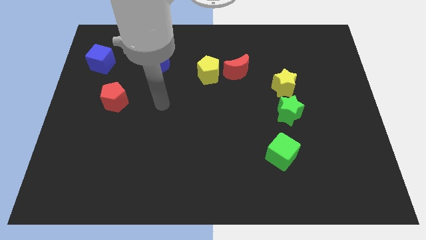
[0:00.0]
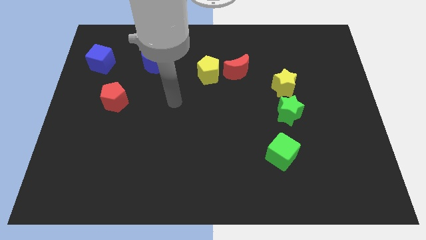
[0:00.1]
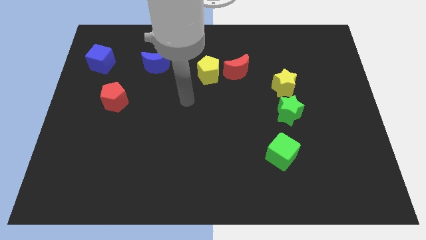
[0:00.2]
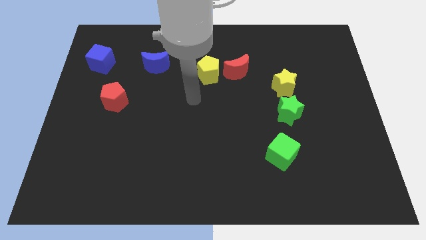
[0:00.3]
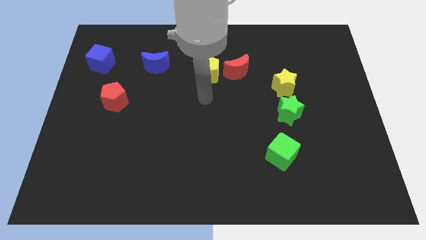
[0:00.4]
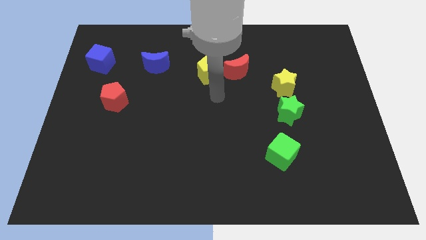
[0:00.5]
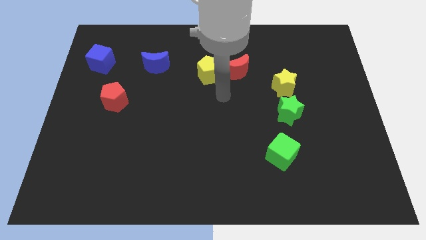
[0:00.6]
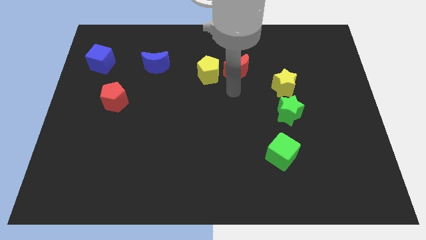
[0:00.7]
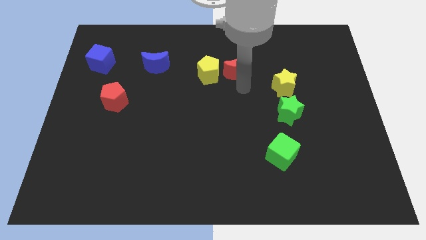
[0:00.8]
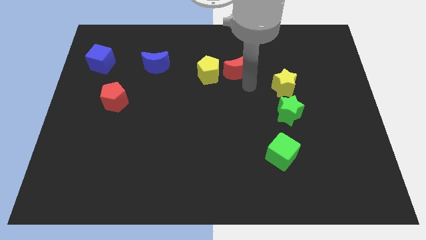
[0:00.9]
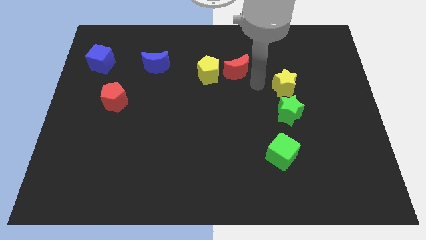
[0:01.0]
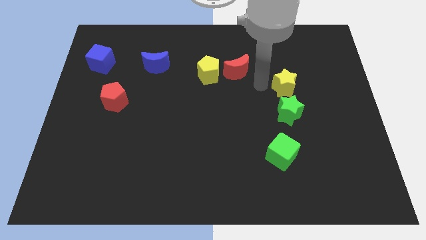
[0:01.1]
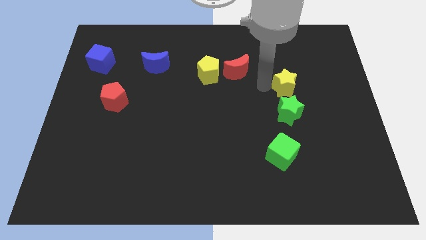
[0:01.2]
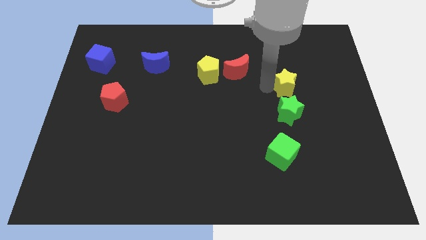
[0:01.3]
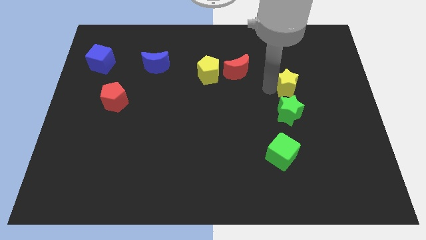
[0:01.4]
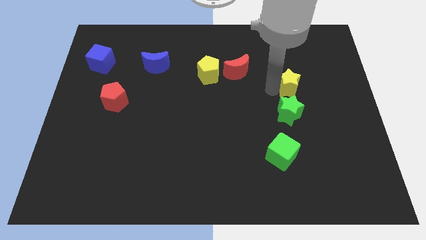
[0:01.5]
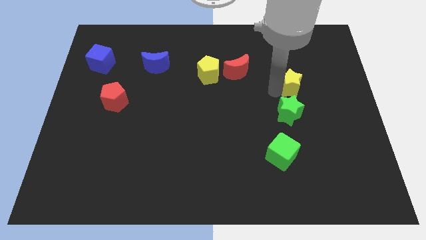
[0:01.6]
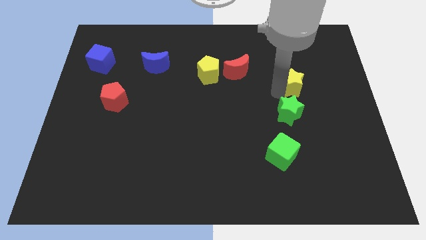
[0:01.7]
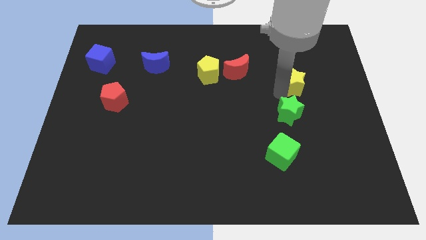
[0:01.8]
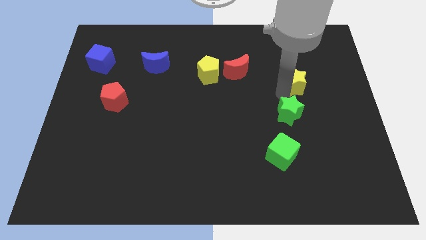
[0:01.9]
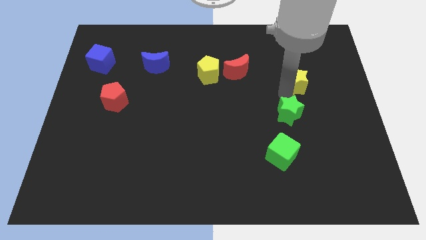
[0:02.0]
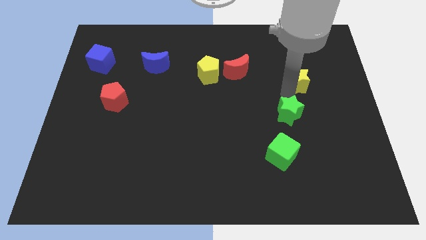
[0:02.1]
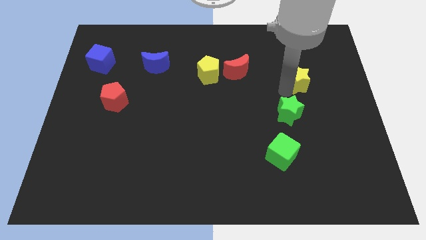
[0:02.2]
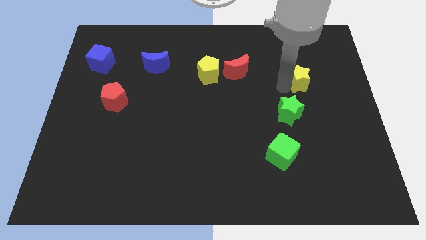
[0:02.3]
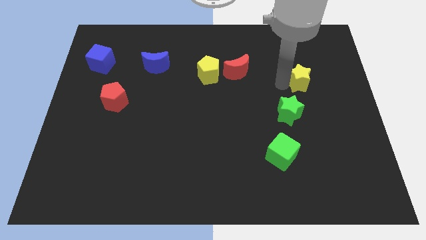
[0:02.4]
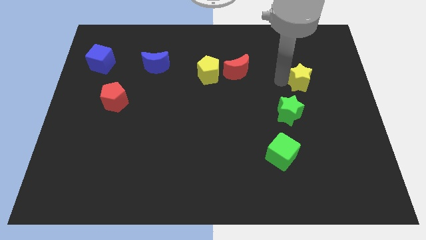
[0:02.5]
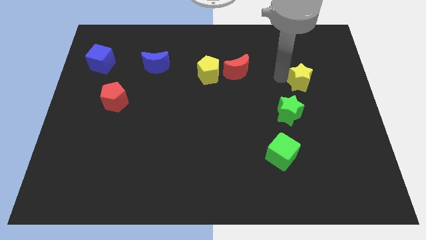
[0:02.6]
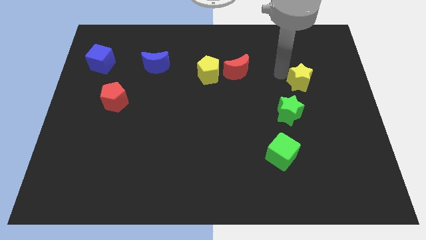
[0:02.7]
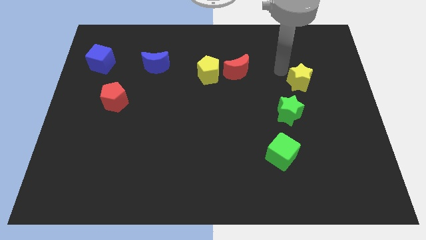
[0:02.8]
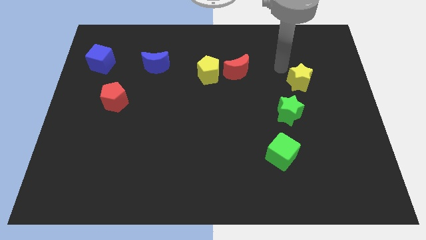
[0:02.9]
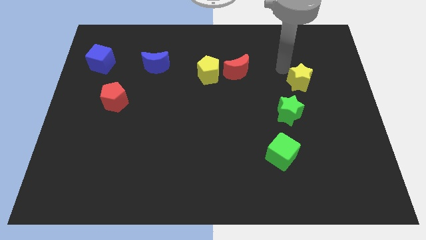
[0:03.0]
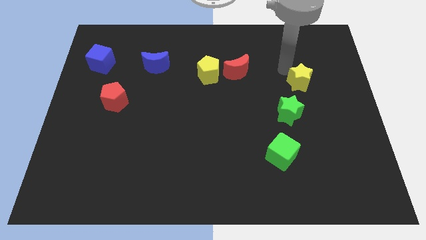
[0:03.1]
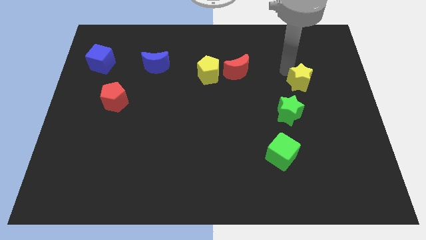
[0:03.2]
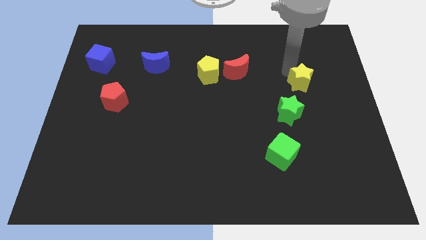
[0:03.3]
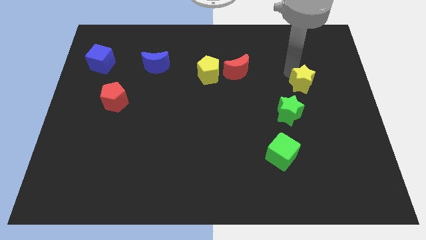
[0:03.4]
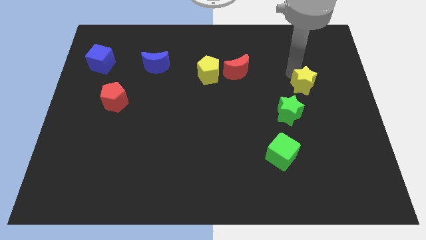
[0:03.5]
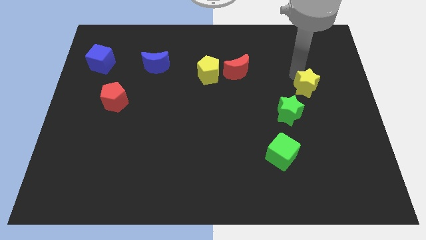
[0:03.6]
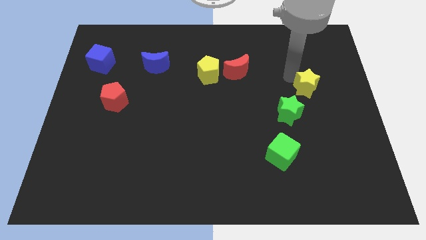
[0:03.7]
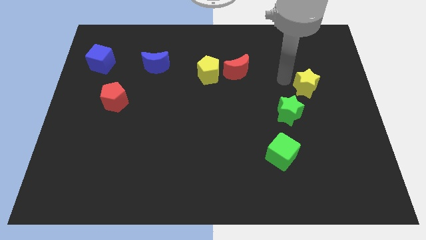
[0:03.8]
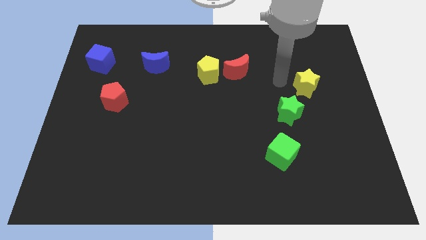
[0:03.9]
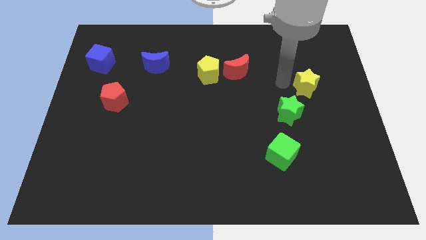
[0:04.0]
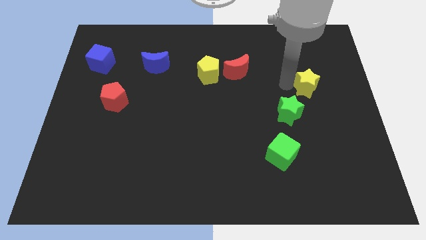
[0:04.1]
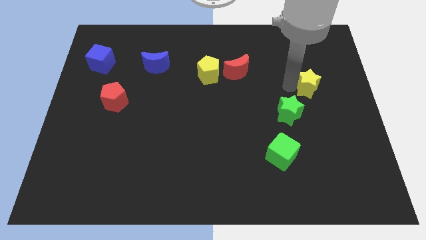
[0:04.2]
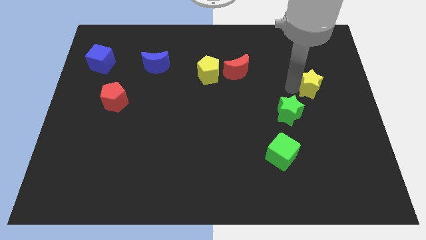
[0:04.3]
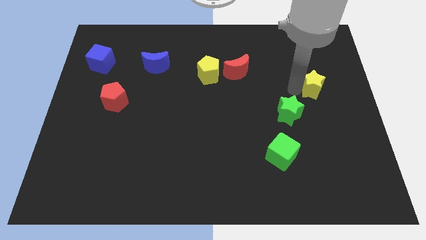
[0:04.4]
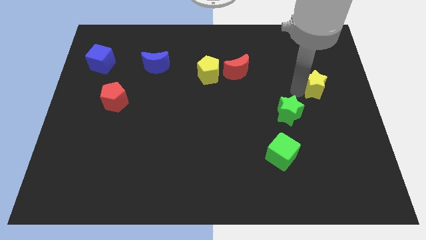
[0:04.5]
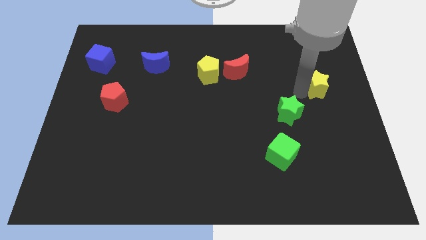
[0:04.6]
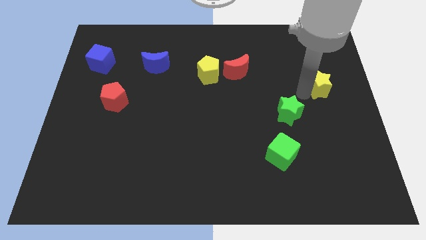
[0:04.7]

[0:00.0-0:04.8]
move the yellow star to the center right

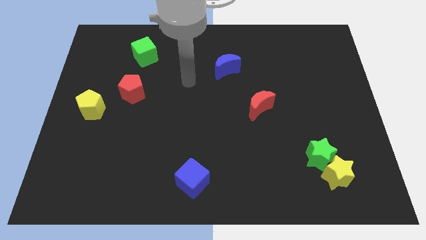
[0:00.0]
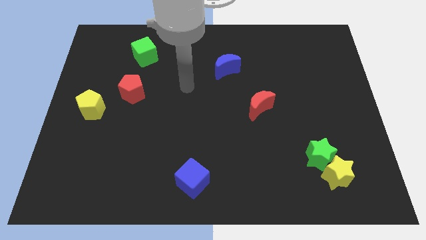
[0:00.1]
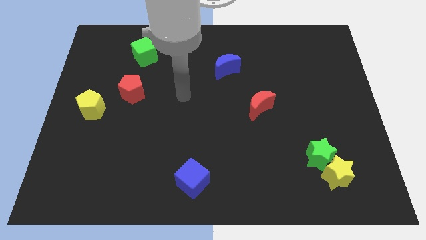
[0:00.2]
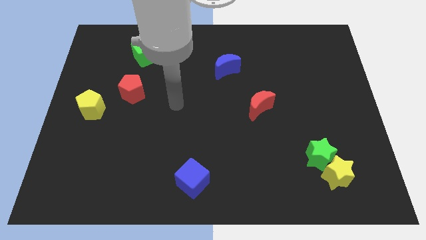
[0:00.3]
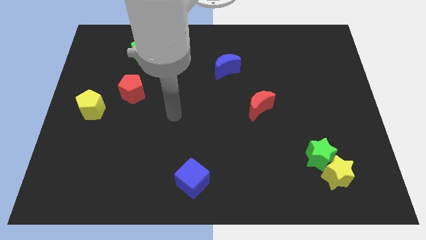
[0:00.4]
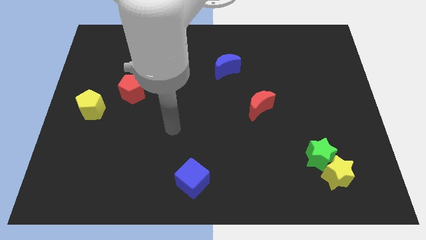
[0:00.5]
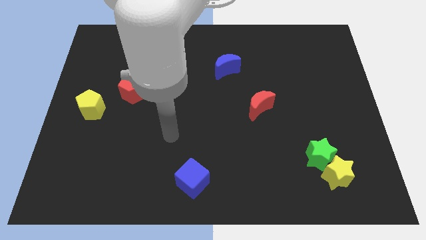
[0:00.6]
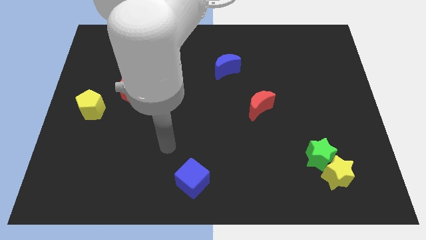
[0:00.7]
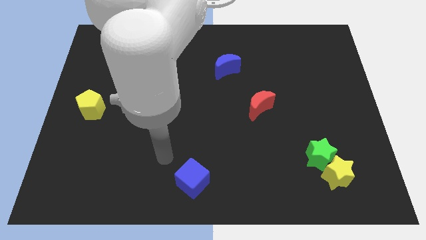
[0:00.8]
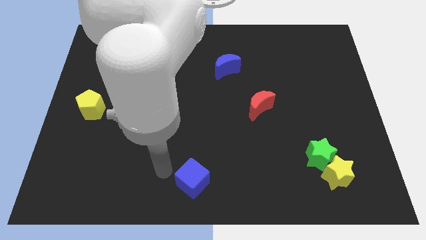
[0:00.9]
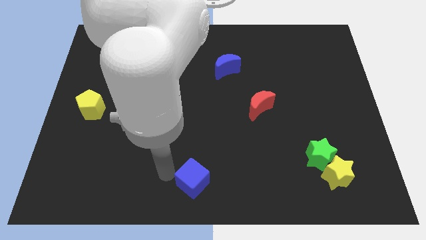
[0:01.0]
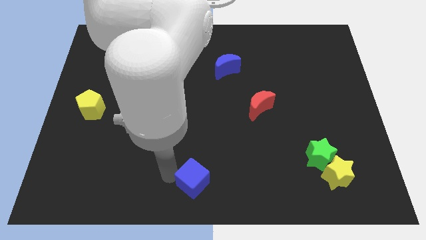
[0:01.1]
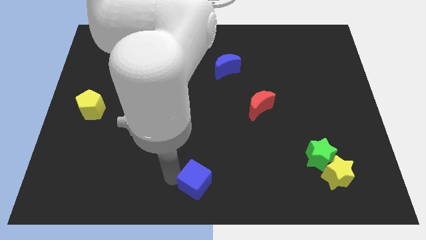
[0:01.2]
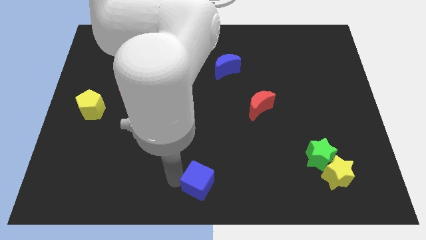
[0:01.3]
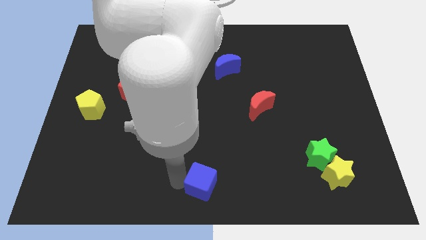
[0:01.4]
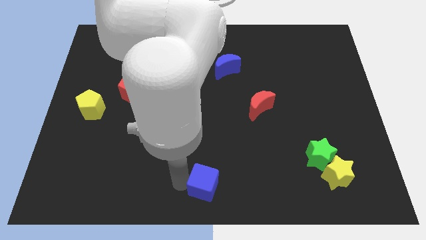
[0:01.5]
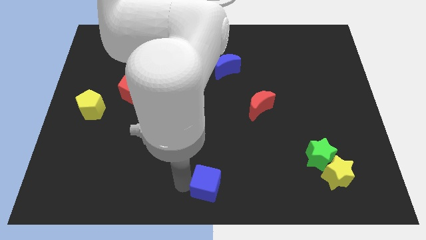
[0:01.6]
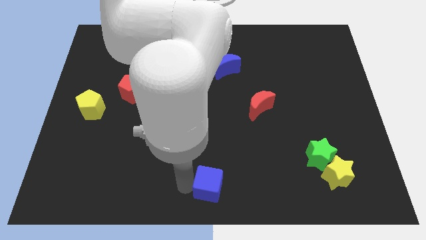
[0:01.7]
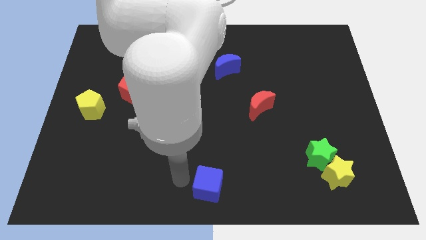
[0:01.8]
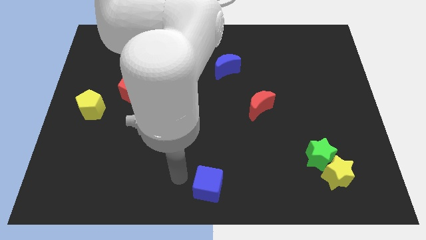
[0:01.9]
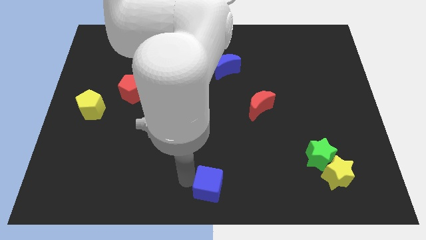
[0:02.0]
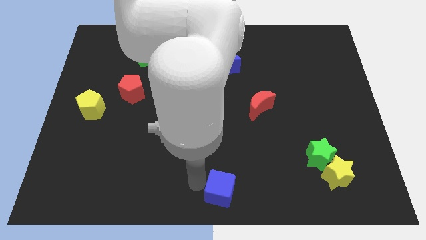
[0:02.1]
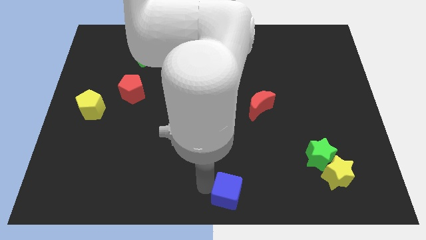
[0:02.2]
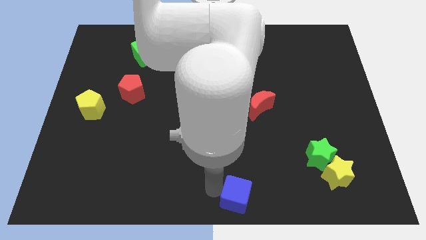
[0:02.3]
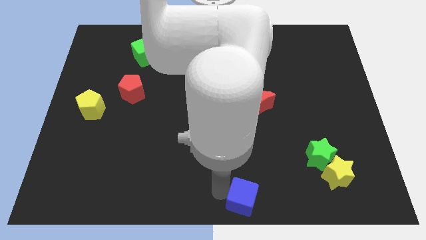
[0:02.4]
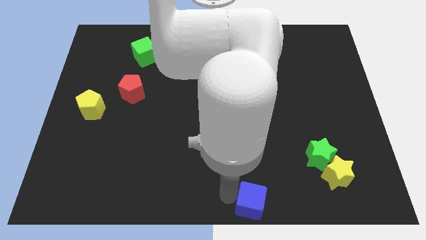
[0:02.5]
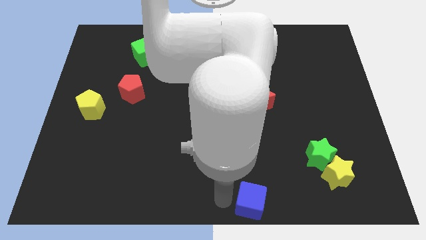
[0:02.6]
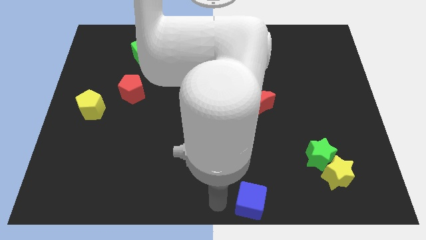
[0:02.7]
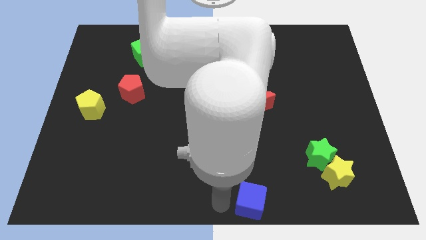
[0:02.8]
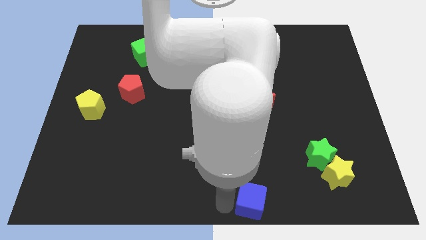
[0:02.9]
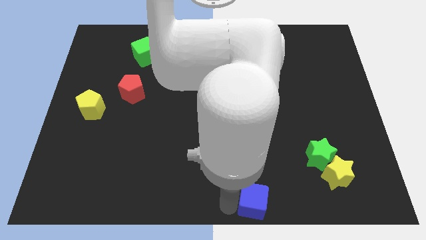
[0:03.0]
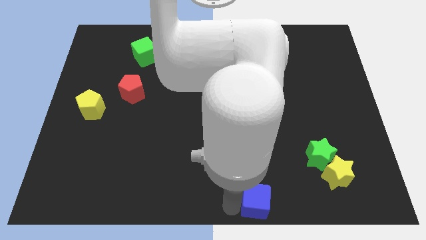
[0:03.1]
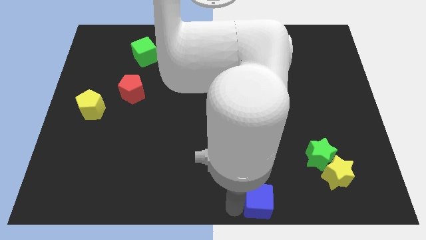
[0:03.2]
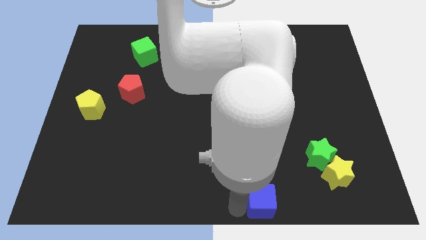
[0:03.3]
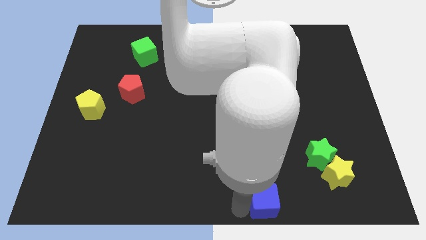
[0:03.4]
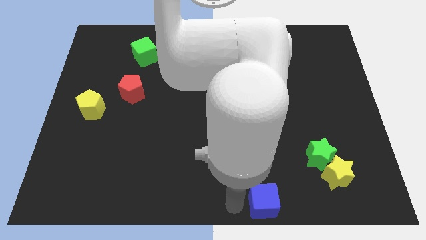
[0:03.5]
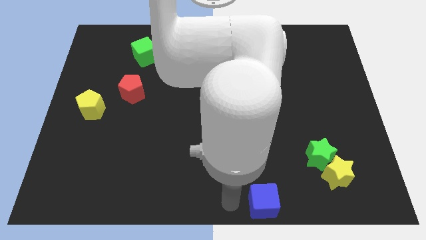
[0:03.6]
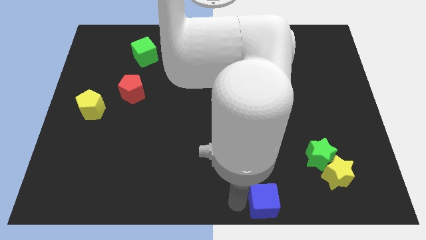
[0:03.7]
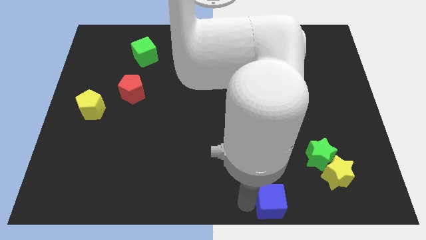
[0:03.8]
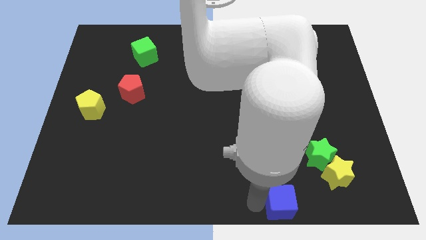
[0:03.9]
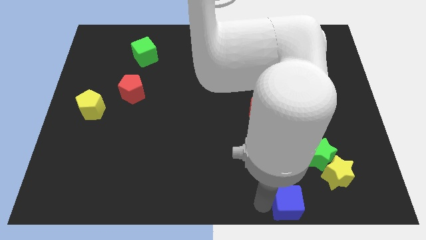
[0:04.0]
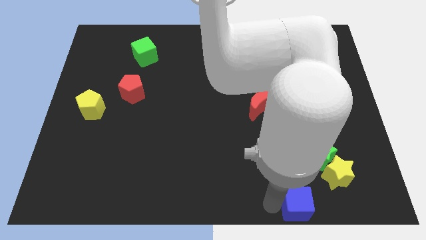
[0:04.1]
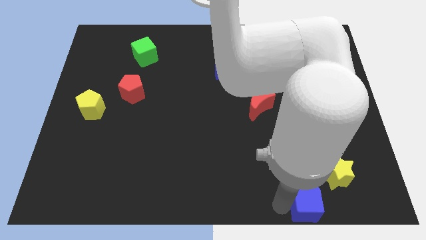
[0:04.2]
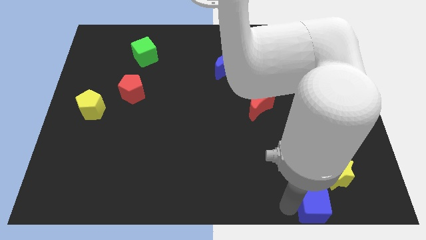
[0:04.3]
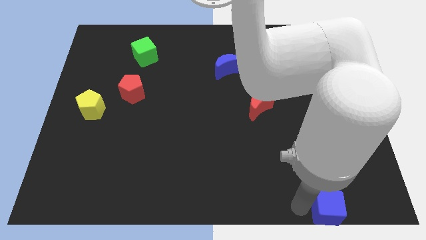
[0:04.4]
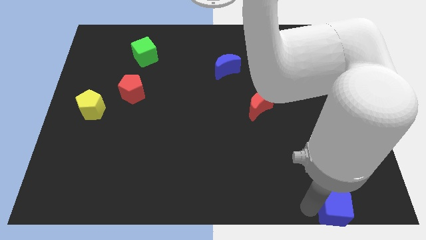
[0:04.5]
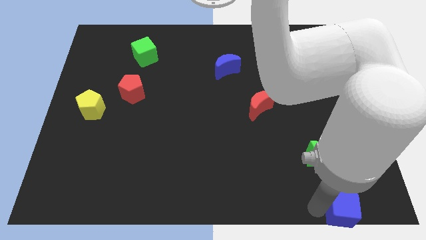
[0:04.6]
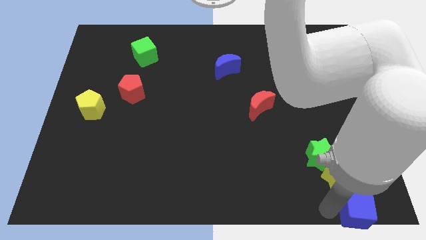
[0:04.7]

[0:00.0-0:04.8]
put the blue cube to the lower right corner
